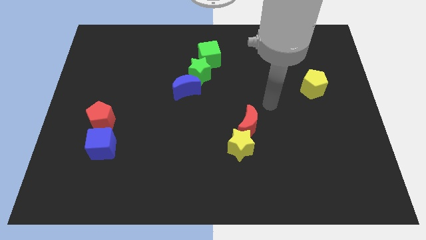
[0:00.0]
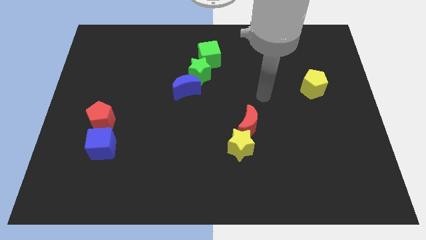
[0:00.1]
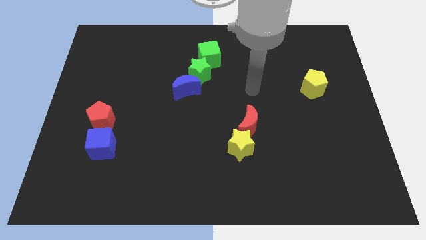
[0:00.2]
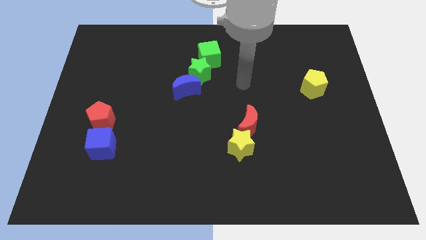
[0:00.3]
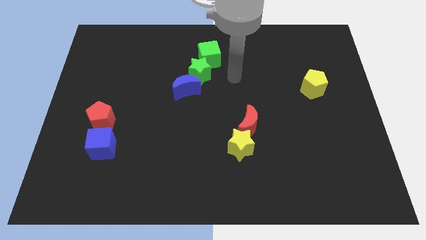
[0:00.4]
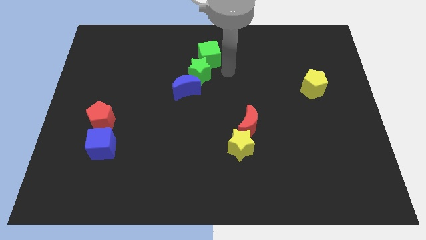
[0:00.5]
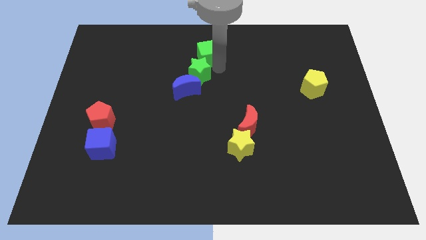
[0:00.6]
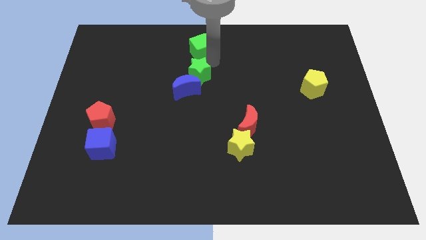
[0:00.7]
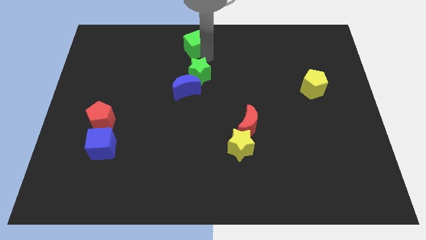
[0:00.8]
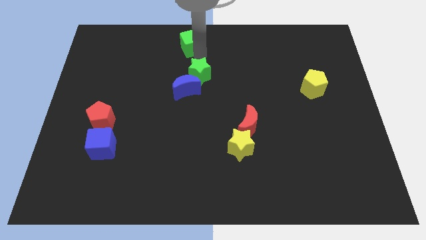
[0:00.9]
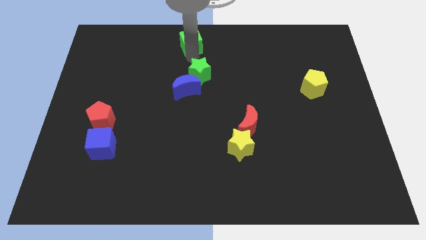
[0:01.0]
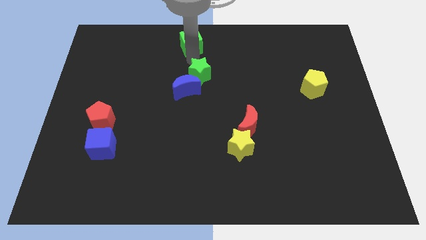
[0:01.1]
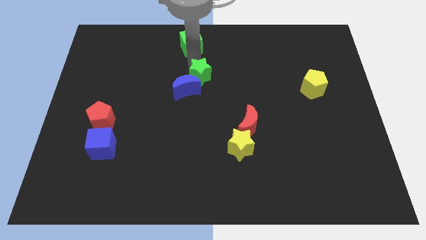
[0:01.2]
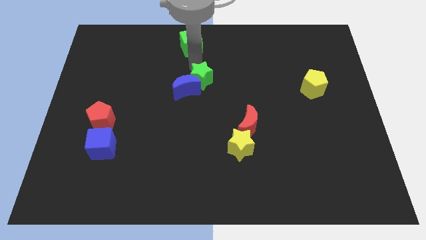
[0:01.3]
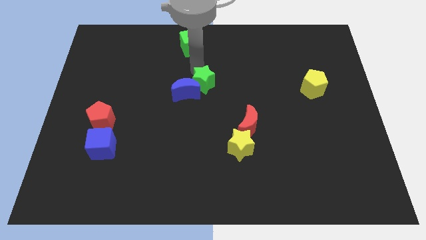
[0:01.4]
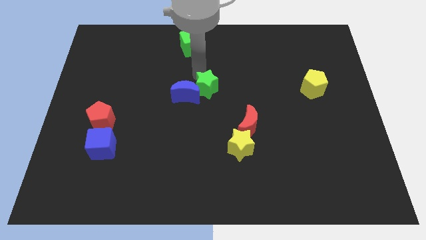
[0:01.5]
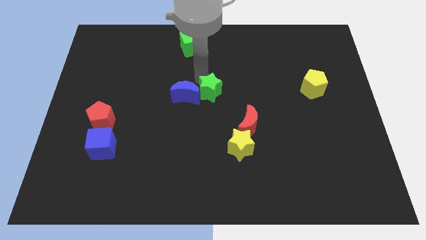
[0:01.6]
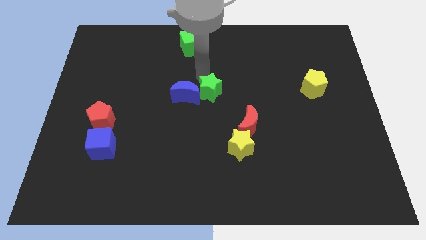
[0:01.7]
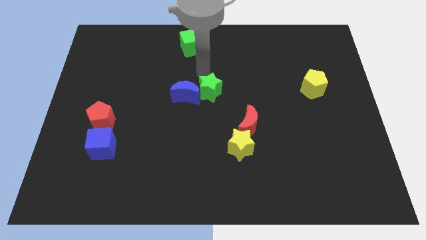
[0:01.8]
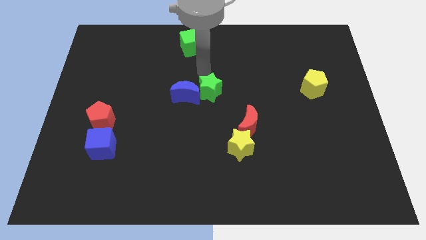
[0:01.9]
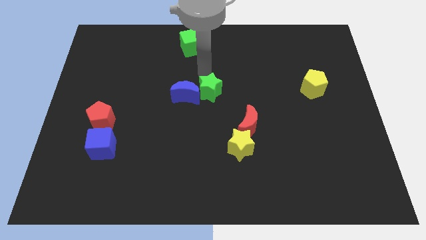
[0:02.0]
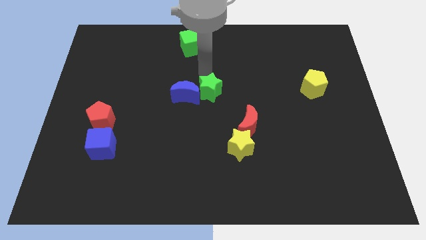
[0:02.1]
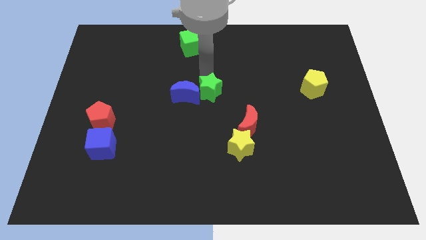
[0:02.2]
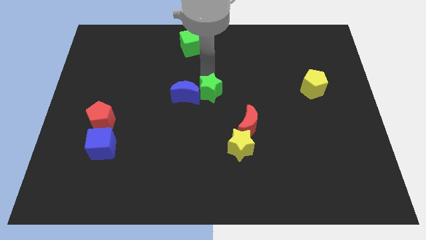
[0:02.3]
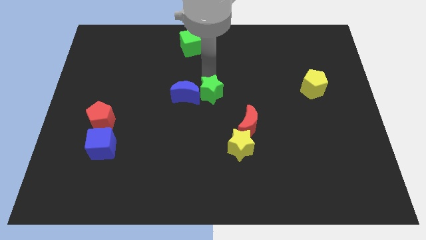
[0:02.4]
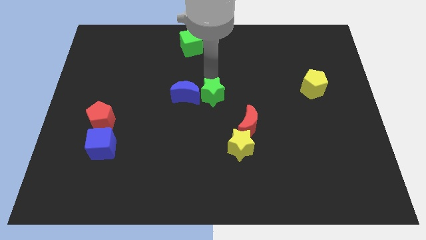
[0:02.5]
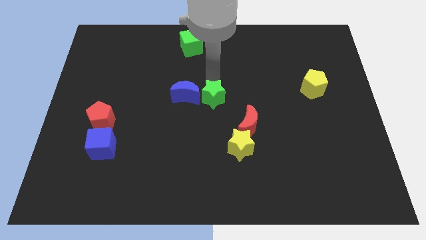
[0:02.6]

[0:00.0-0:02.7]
move the green star a bit downwards

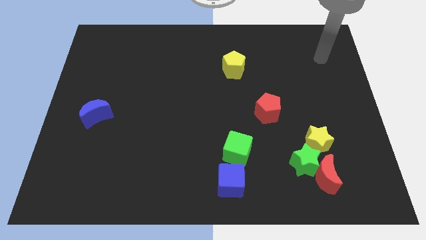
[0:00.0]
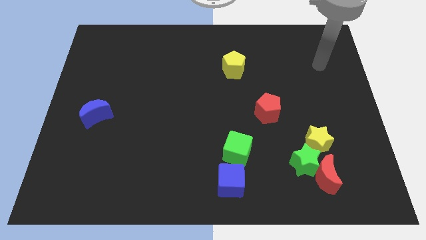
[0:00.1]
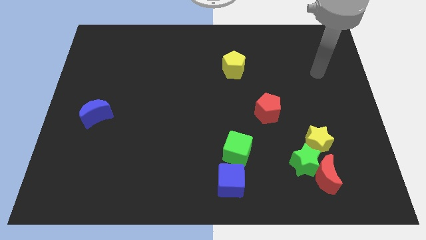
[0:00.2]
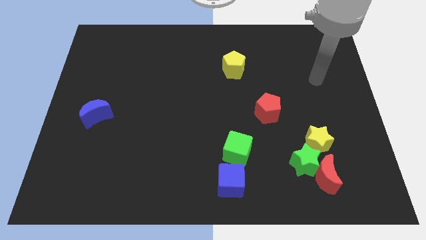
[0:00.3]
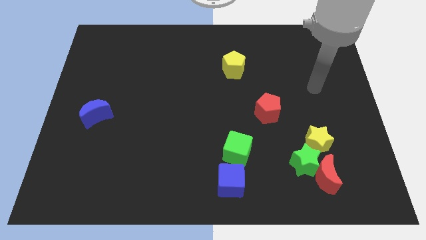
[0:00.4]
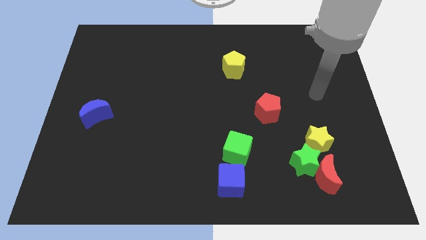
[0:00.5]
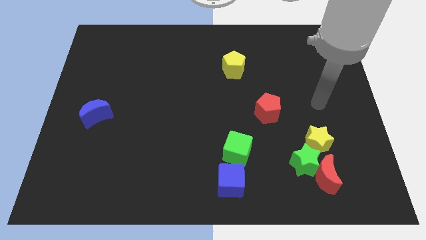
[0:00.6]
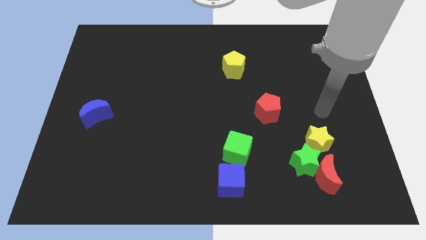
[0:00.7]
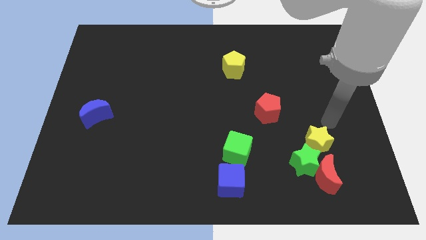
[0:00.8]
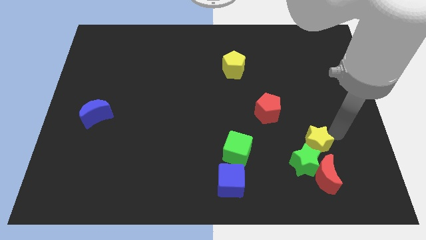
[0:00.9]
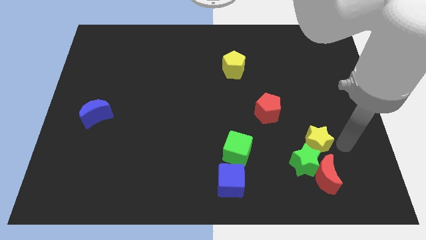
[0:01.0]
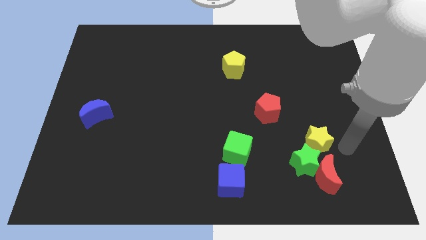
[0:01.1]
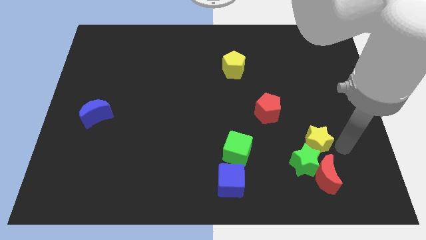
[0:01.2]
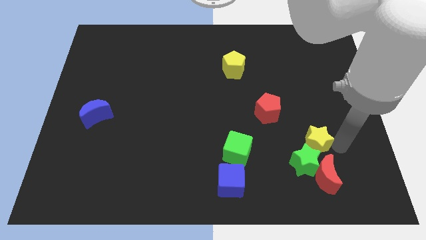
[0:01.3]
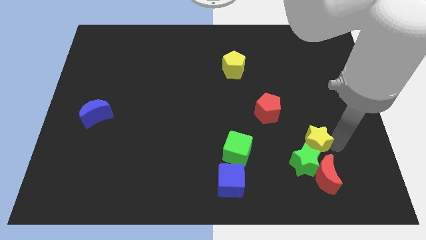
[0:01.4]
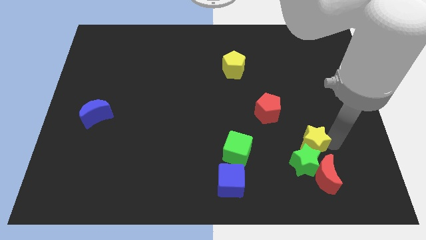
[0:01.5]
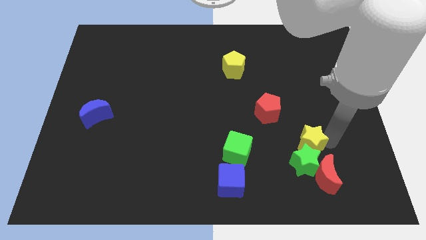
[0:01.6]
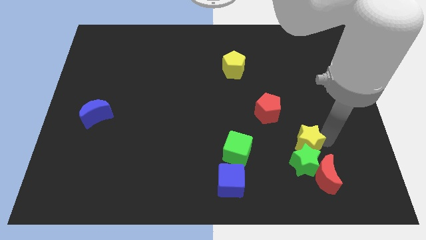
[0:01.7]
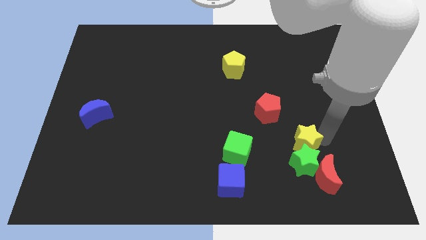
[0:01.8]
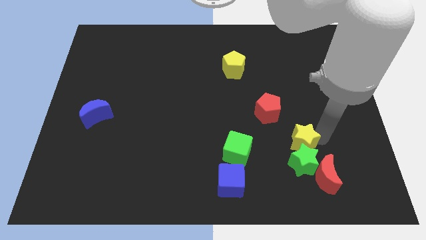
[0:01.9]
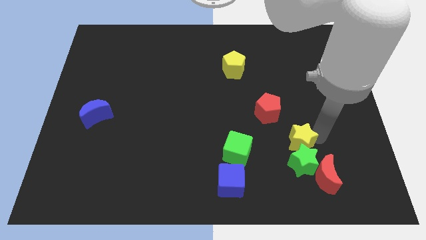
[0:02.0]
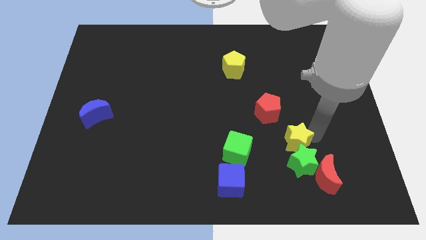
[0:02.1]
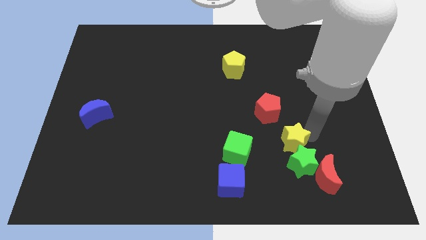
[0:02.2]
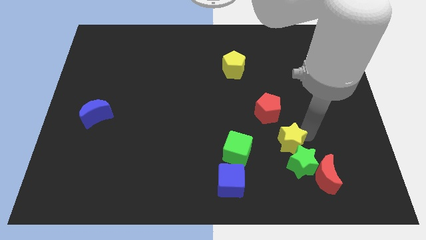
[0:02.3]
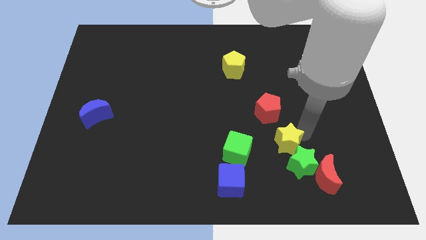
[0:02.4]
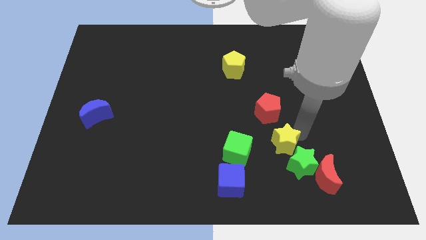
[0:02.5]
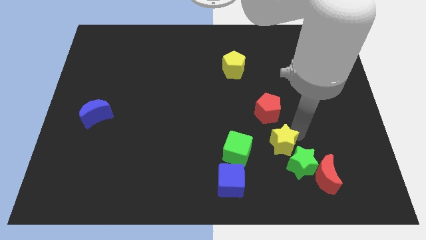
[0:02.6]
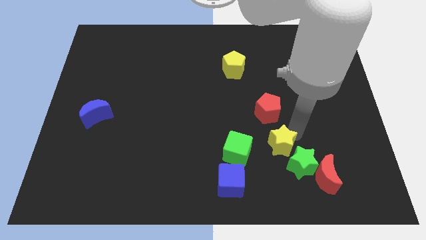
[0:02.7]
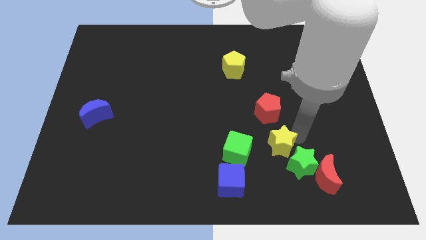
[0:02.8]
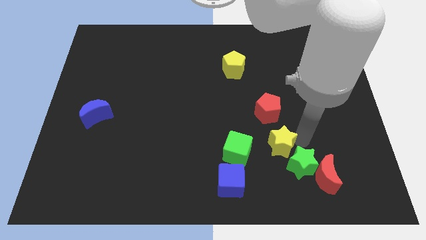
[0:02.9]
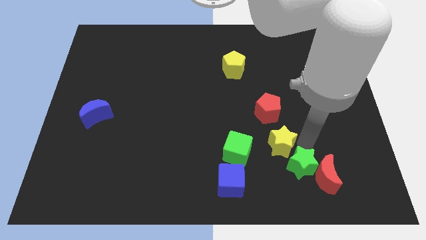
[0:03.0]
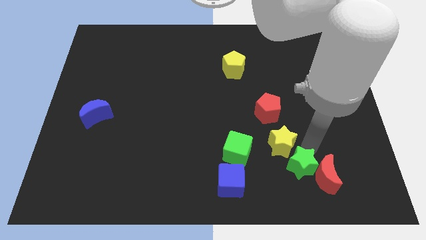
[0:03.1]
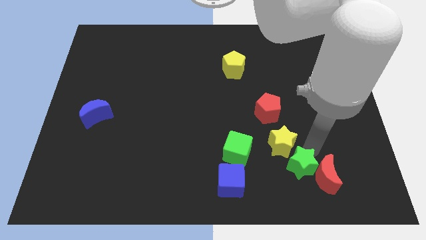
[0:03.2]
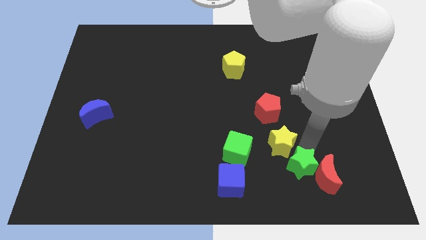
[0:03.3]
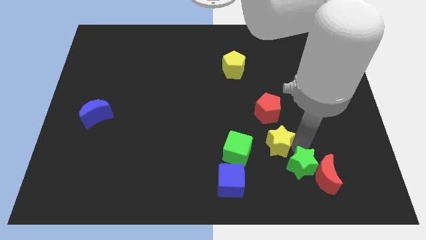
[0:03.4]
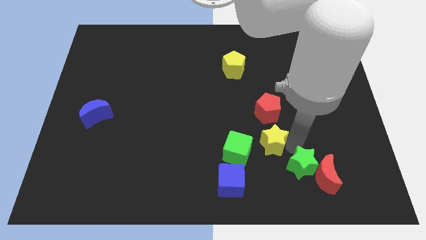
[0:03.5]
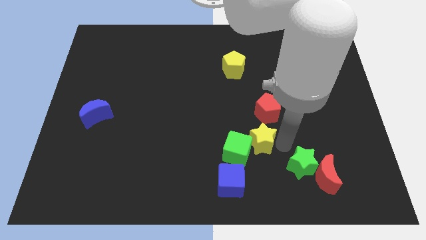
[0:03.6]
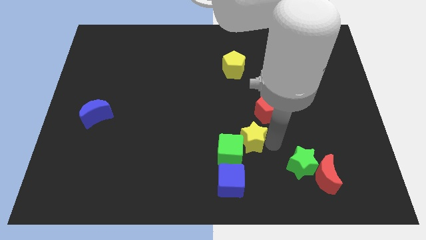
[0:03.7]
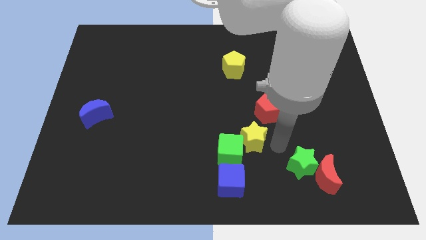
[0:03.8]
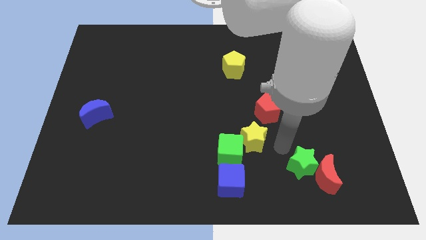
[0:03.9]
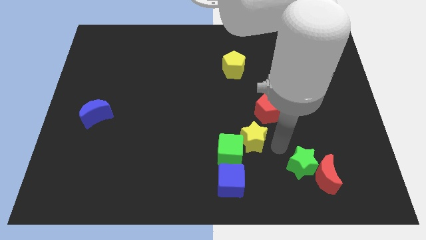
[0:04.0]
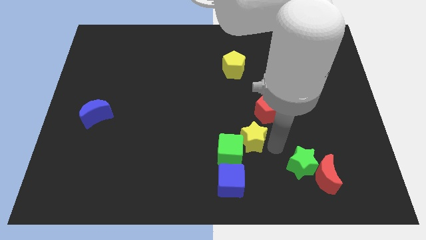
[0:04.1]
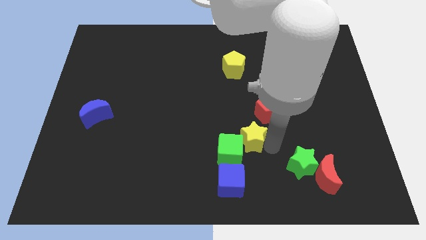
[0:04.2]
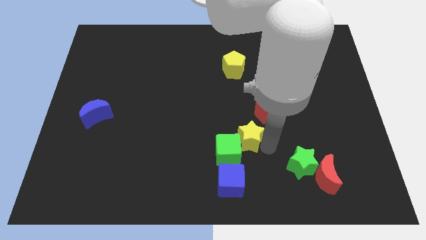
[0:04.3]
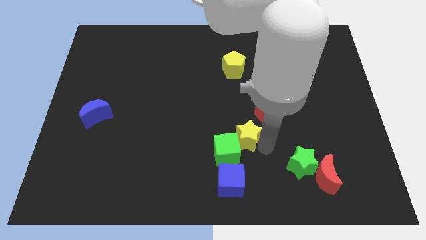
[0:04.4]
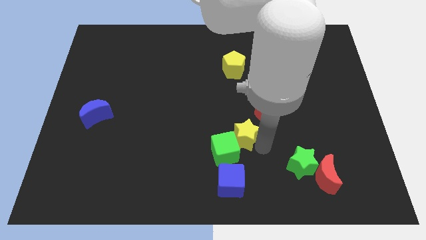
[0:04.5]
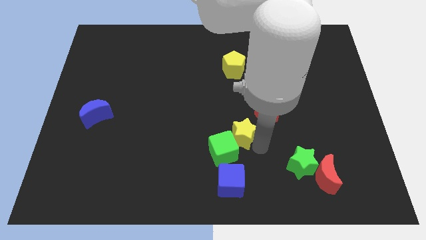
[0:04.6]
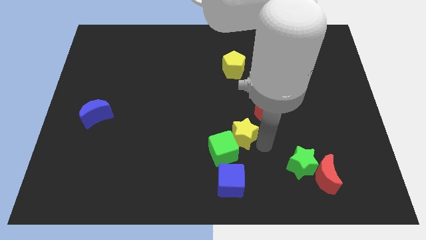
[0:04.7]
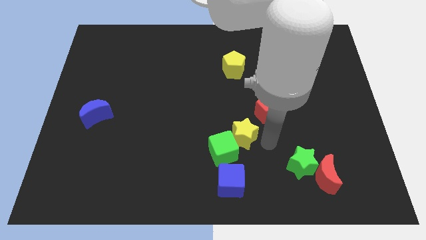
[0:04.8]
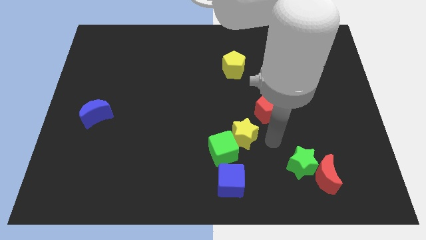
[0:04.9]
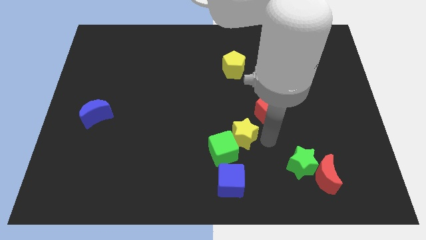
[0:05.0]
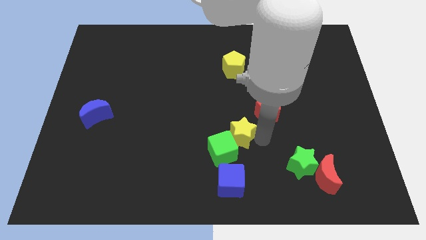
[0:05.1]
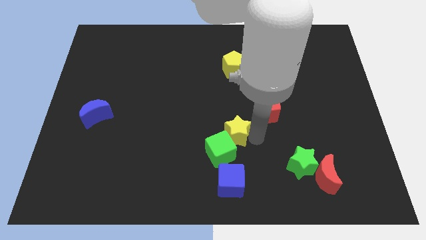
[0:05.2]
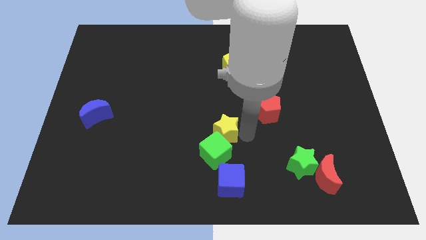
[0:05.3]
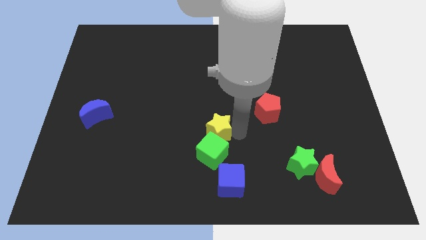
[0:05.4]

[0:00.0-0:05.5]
slide the yellow star left
